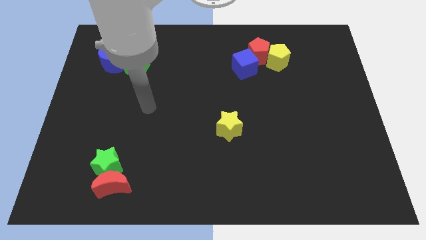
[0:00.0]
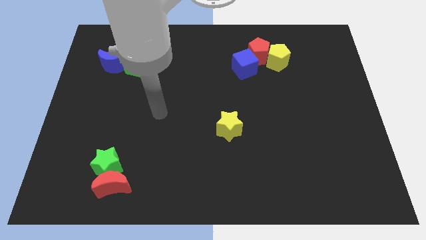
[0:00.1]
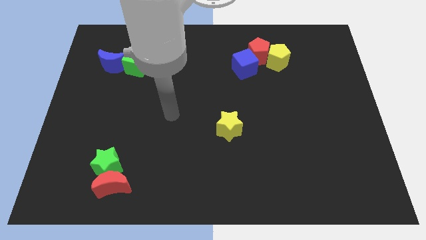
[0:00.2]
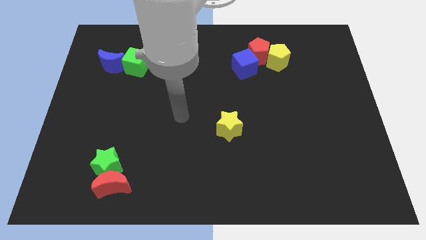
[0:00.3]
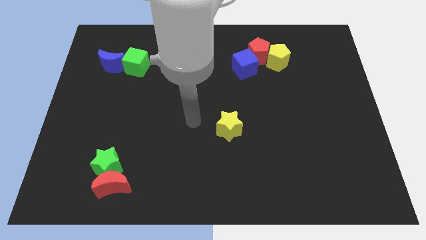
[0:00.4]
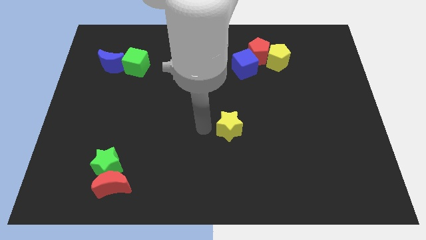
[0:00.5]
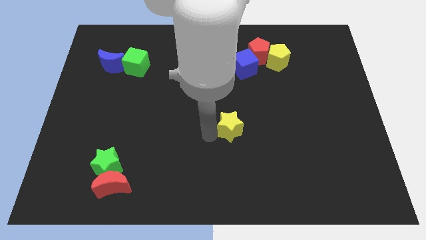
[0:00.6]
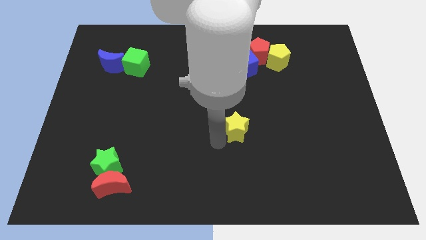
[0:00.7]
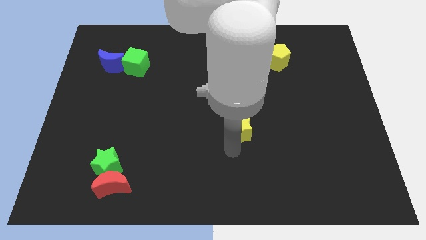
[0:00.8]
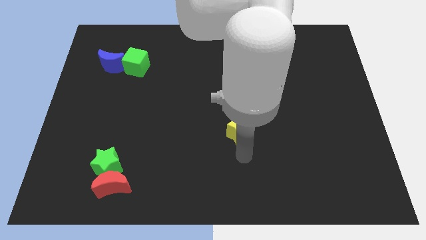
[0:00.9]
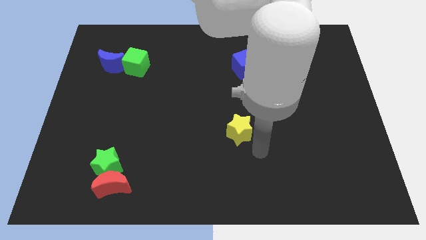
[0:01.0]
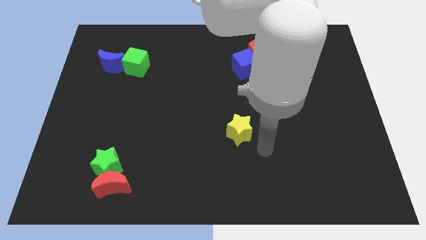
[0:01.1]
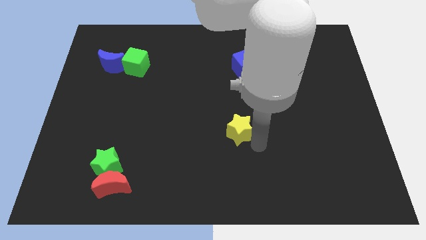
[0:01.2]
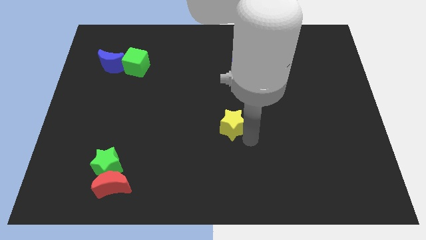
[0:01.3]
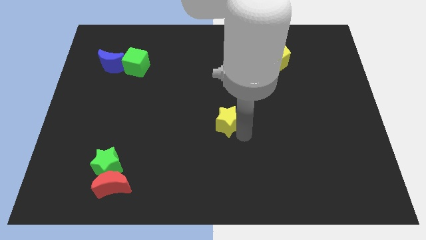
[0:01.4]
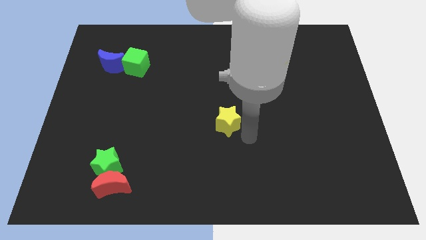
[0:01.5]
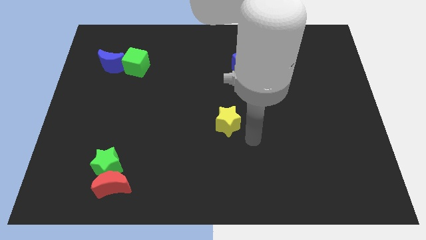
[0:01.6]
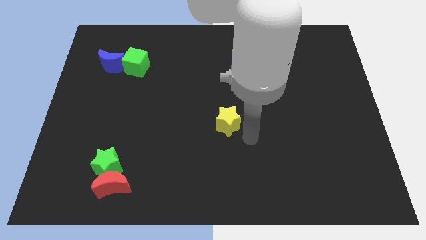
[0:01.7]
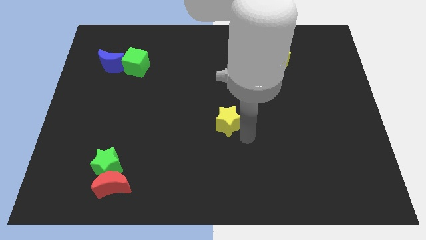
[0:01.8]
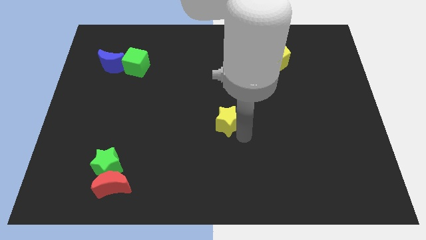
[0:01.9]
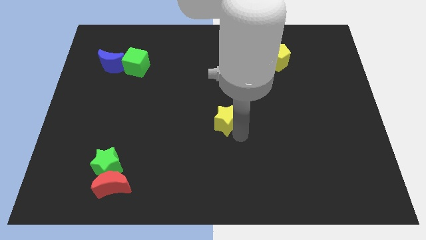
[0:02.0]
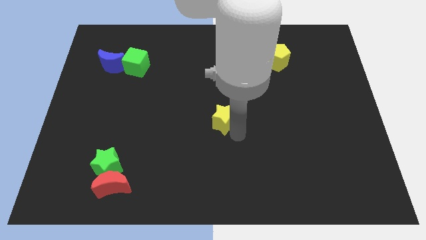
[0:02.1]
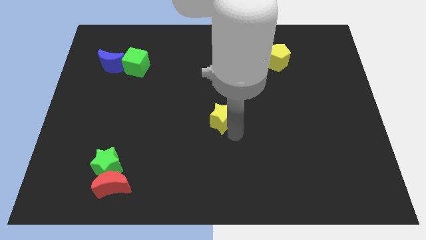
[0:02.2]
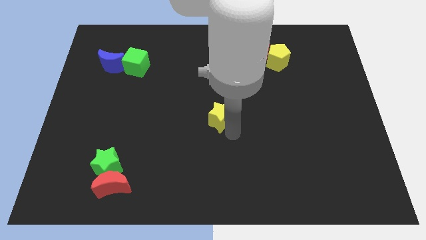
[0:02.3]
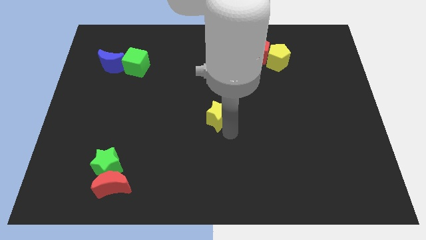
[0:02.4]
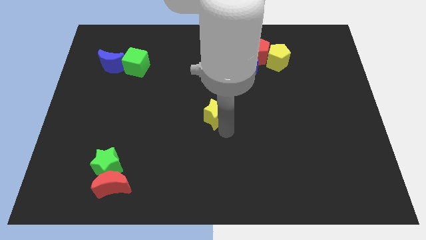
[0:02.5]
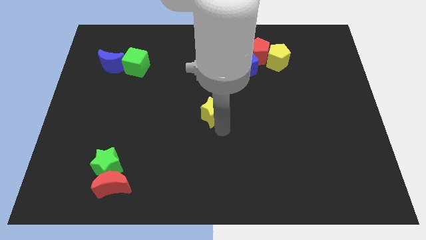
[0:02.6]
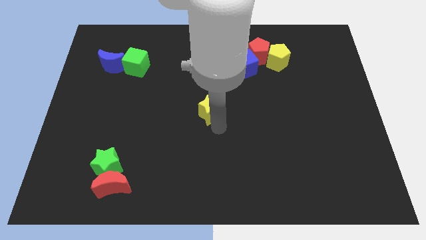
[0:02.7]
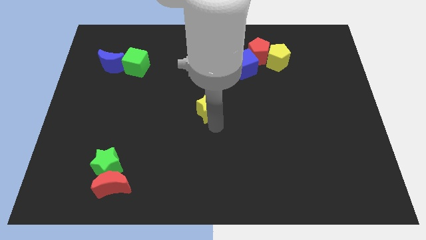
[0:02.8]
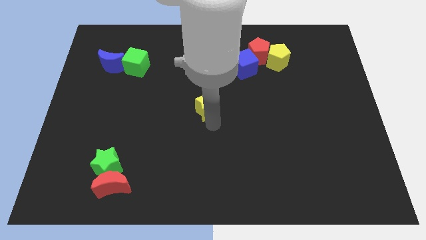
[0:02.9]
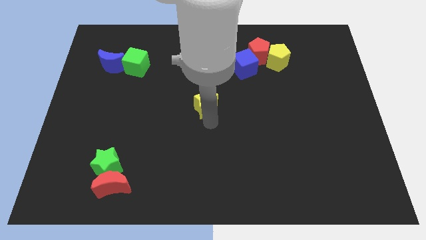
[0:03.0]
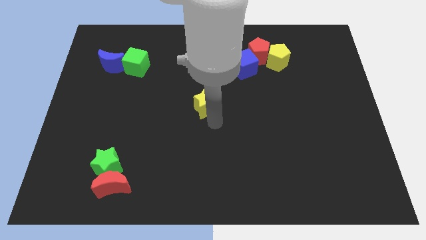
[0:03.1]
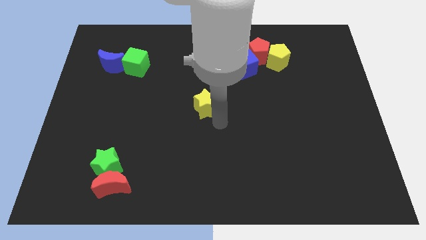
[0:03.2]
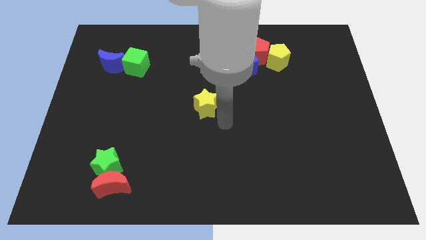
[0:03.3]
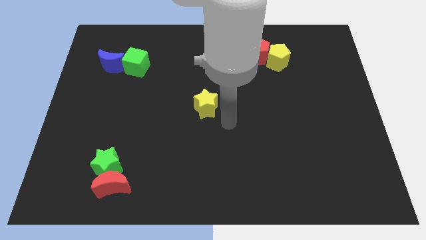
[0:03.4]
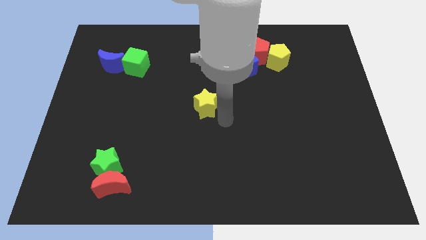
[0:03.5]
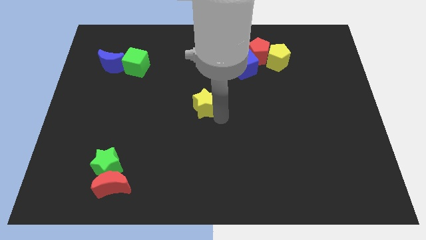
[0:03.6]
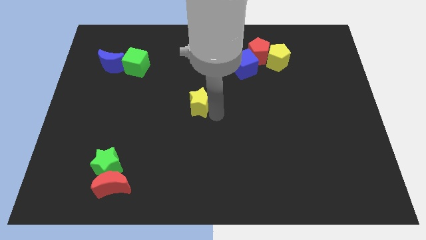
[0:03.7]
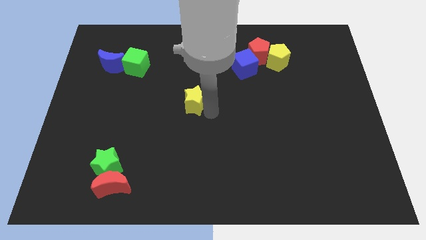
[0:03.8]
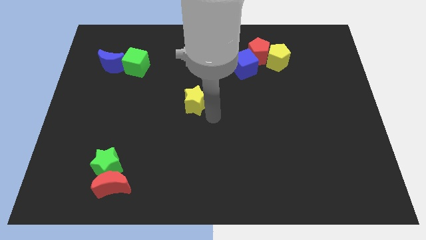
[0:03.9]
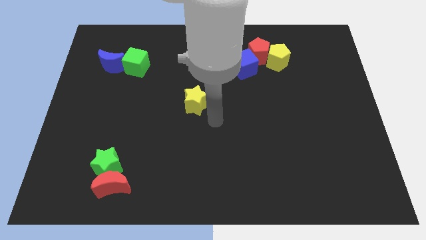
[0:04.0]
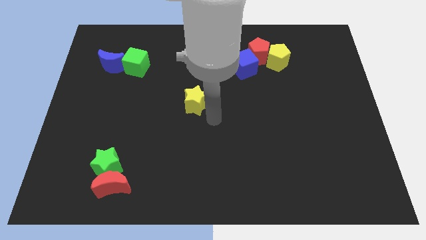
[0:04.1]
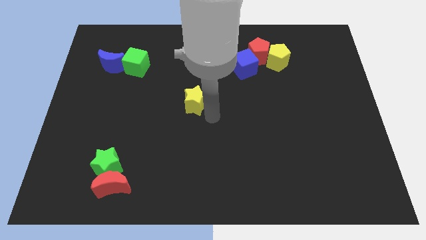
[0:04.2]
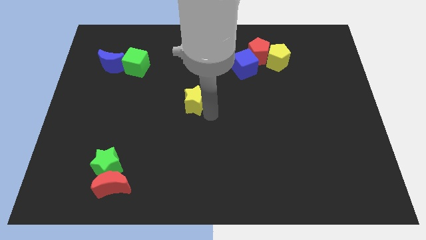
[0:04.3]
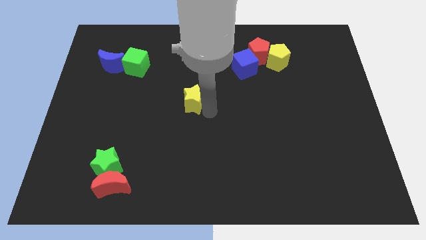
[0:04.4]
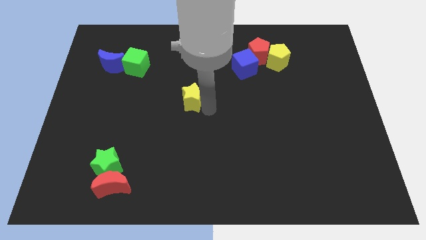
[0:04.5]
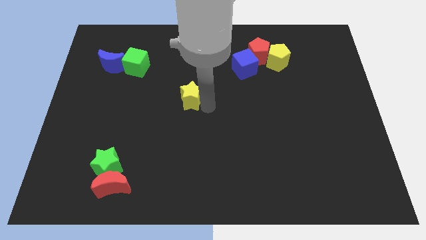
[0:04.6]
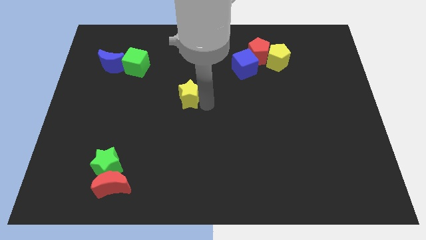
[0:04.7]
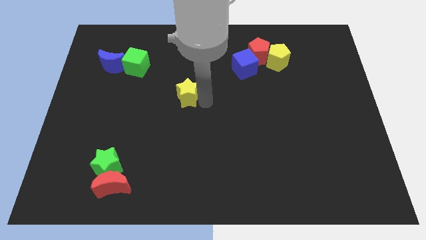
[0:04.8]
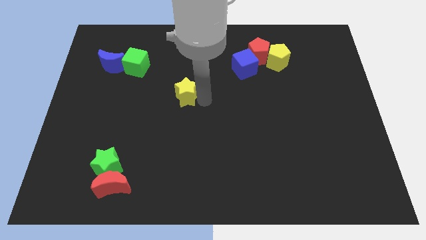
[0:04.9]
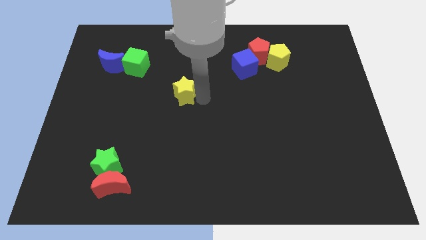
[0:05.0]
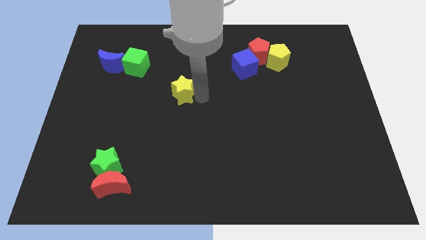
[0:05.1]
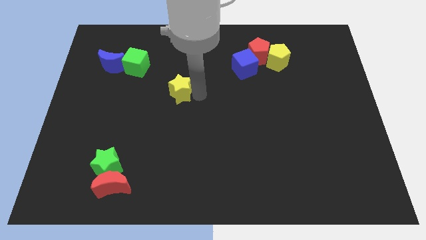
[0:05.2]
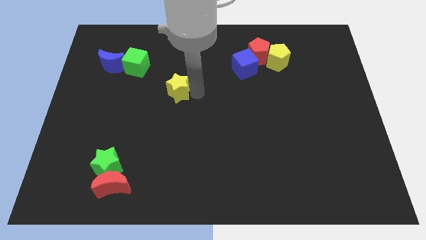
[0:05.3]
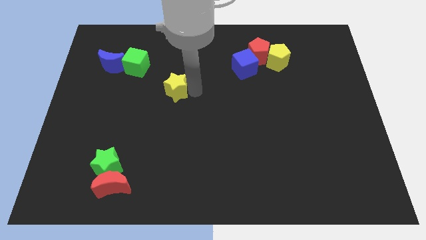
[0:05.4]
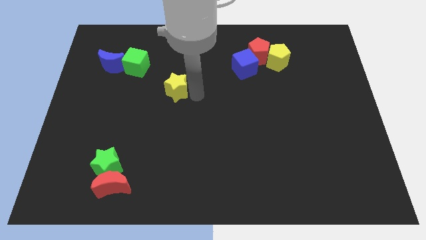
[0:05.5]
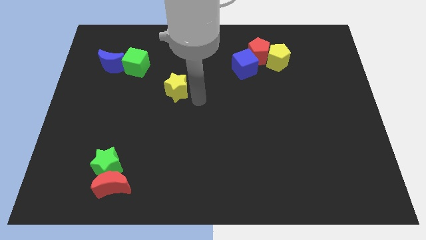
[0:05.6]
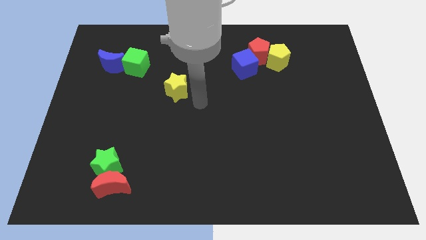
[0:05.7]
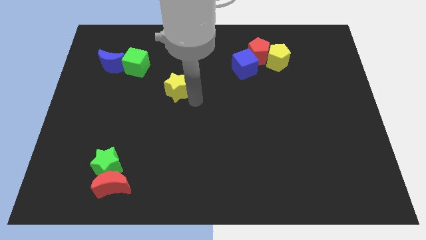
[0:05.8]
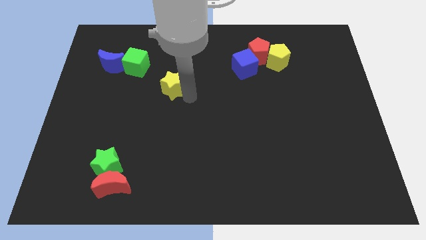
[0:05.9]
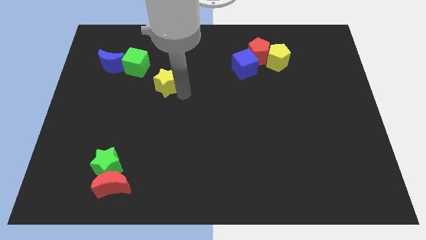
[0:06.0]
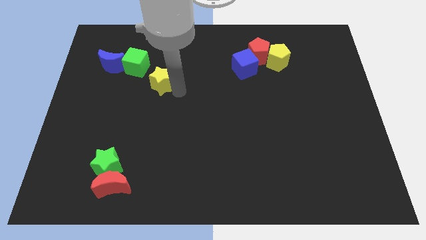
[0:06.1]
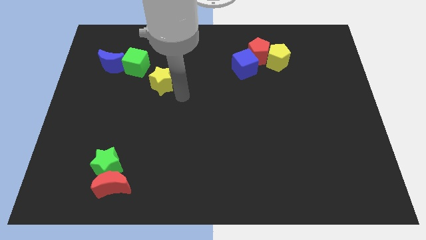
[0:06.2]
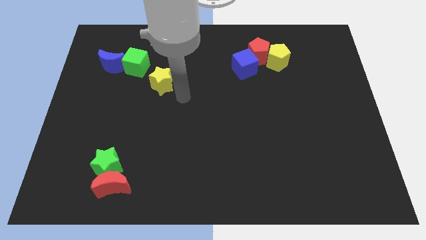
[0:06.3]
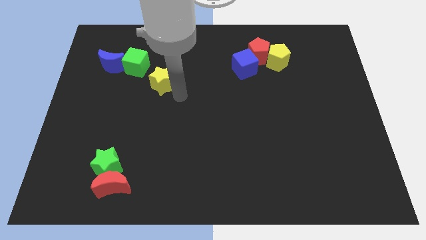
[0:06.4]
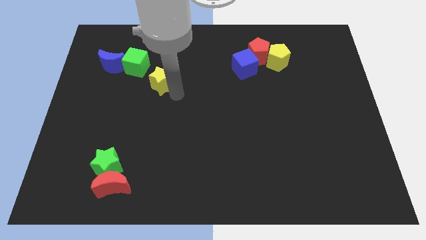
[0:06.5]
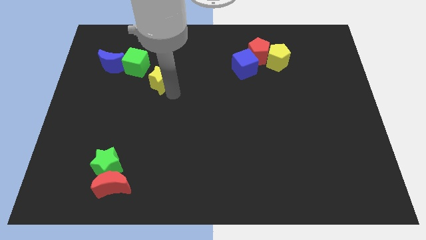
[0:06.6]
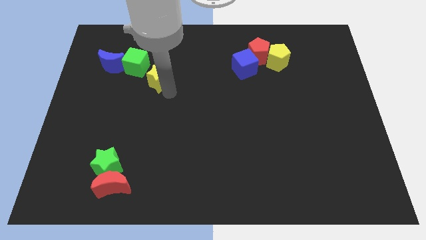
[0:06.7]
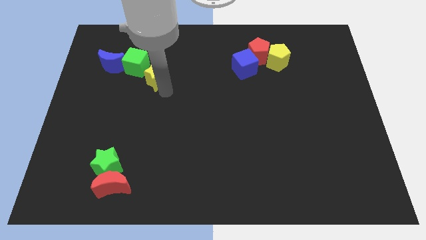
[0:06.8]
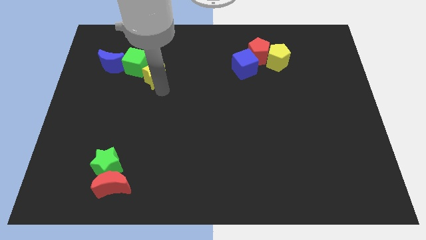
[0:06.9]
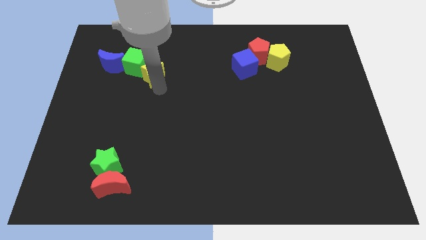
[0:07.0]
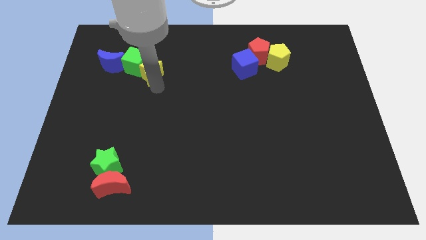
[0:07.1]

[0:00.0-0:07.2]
push the yellow star to the green cube
